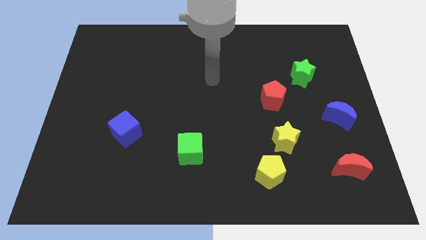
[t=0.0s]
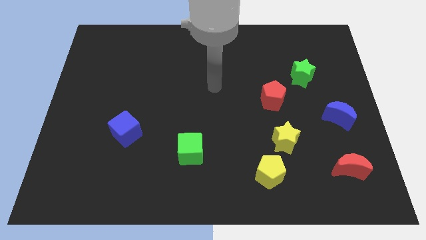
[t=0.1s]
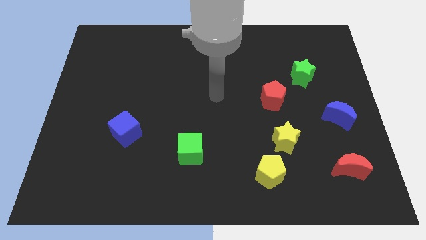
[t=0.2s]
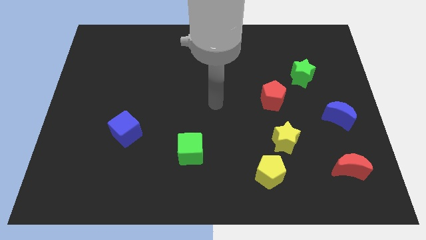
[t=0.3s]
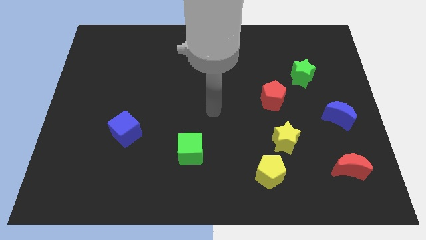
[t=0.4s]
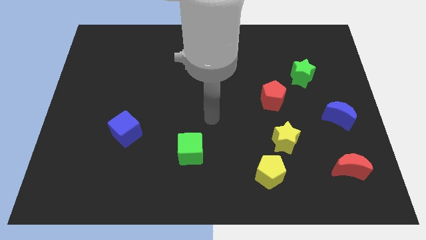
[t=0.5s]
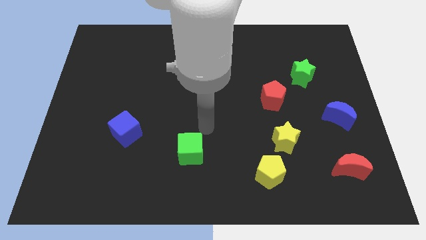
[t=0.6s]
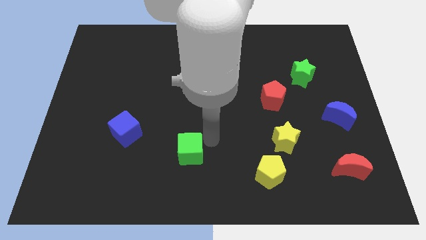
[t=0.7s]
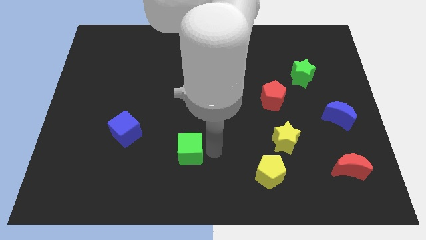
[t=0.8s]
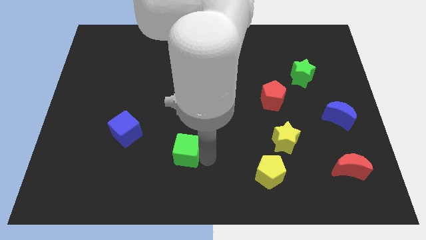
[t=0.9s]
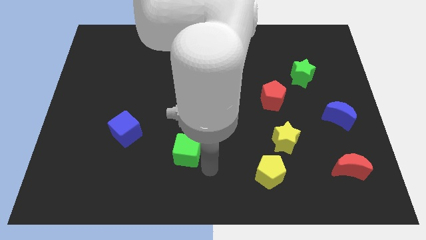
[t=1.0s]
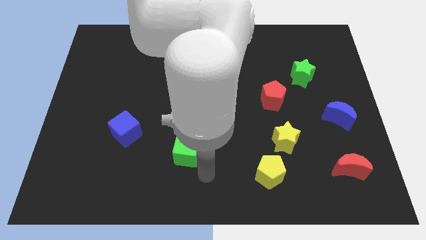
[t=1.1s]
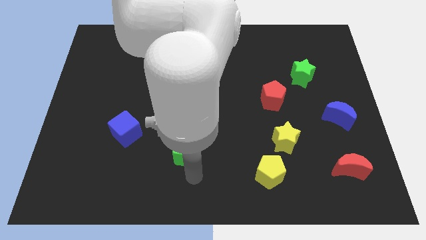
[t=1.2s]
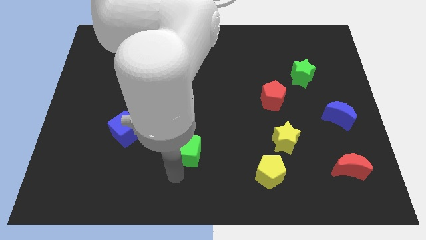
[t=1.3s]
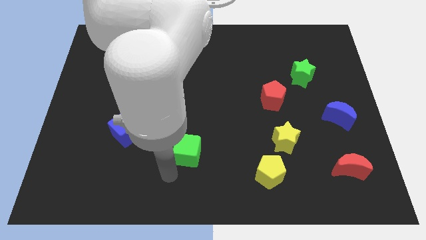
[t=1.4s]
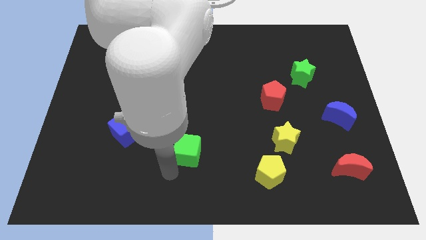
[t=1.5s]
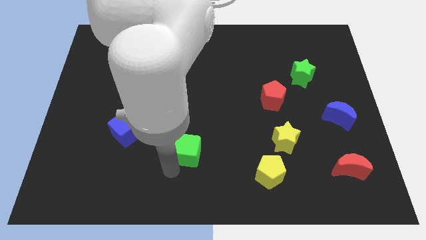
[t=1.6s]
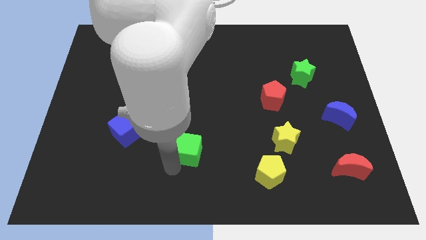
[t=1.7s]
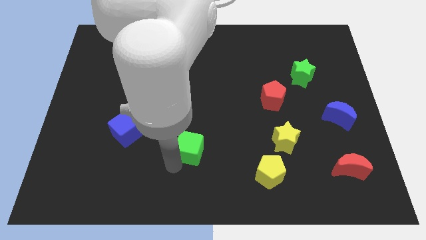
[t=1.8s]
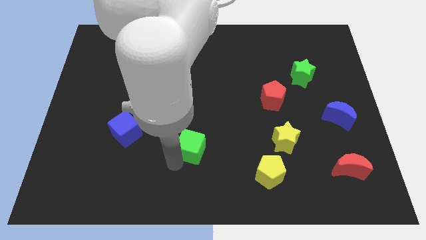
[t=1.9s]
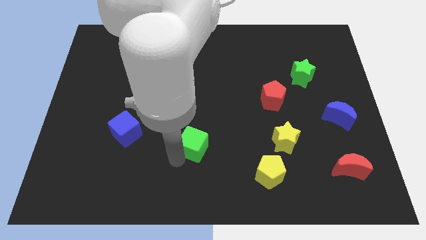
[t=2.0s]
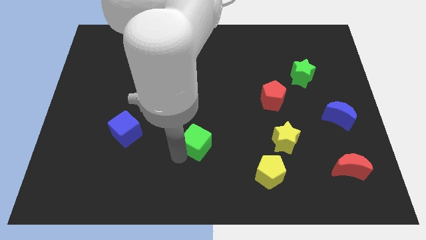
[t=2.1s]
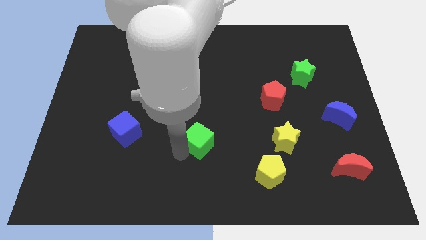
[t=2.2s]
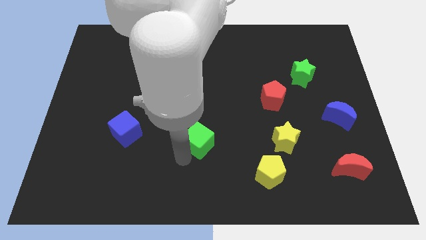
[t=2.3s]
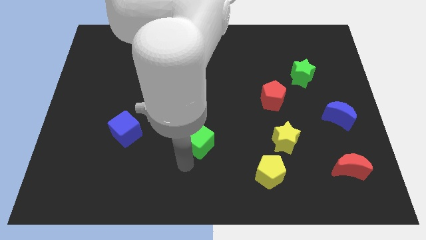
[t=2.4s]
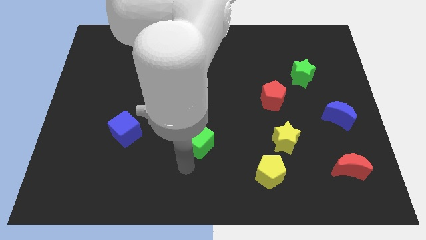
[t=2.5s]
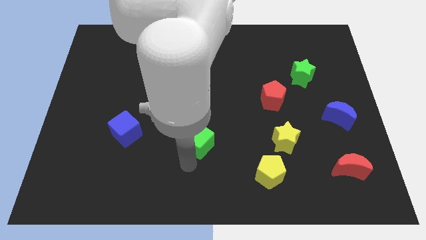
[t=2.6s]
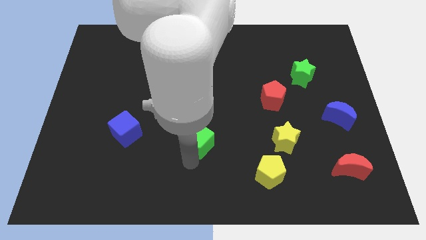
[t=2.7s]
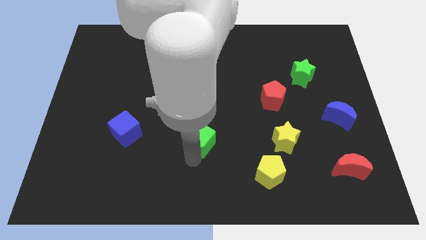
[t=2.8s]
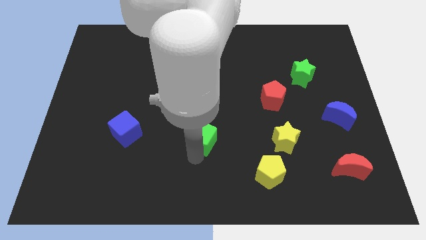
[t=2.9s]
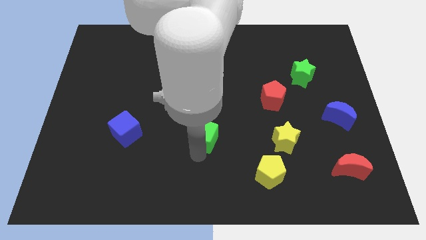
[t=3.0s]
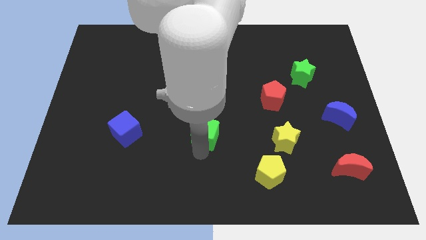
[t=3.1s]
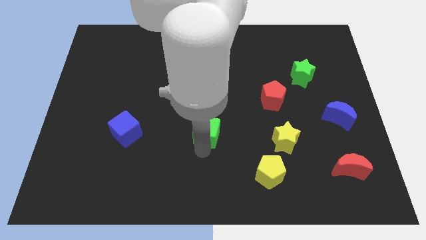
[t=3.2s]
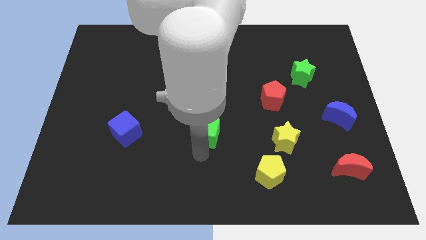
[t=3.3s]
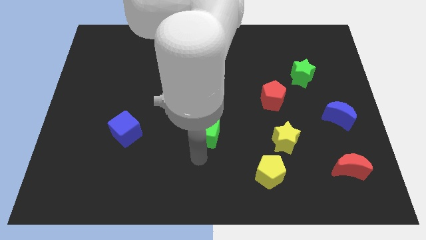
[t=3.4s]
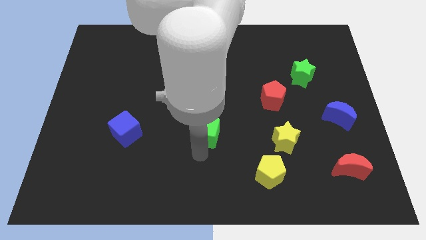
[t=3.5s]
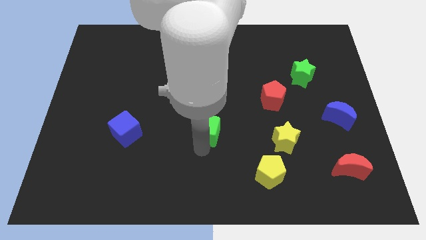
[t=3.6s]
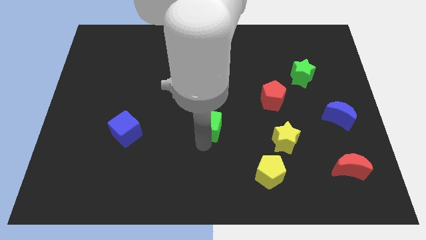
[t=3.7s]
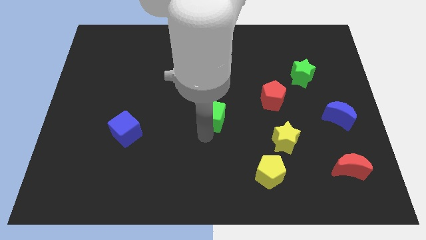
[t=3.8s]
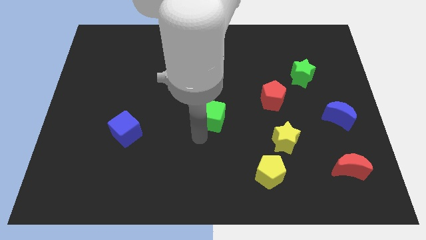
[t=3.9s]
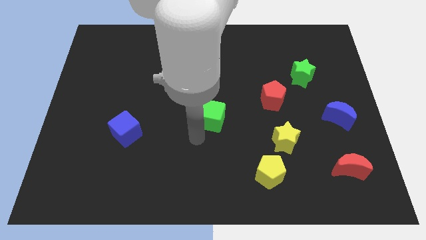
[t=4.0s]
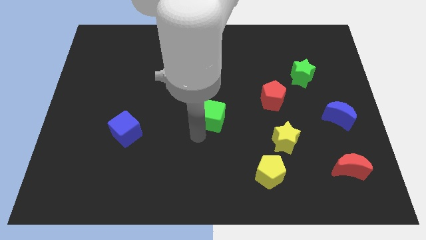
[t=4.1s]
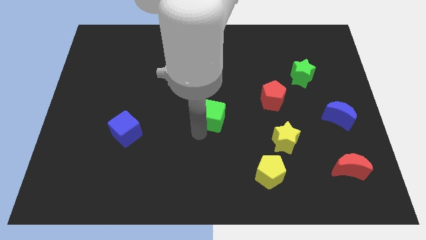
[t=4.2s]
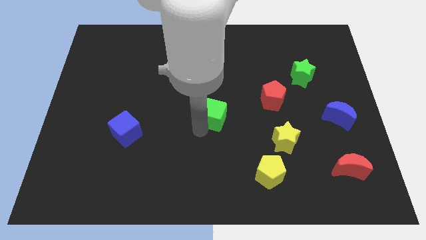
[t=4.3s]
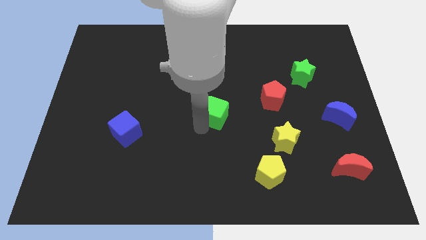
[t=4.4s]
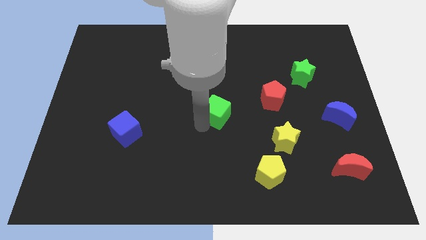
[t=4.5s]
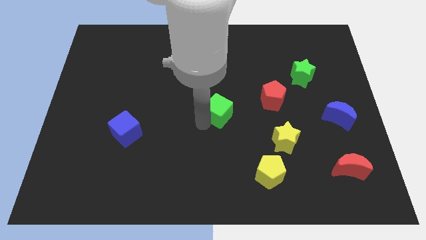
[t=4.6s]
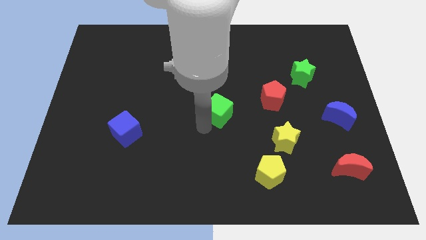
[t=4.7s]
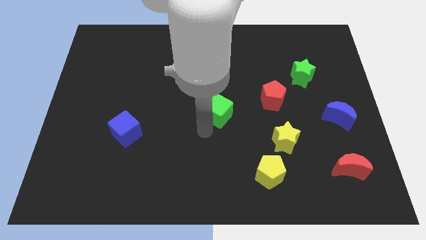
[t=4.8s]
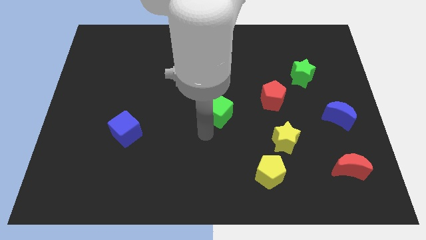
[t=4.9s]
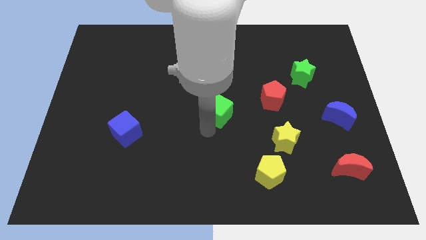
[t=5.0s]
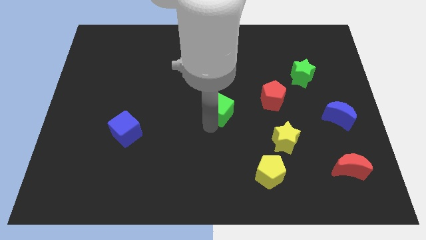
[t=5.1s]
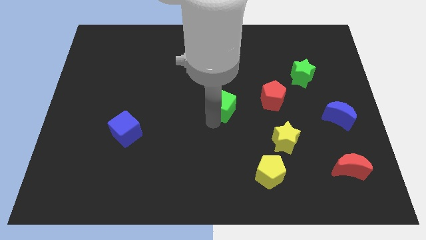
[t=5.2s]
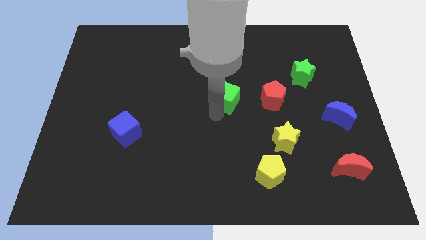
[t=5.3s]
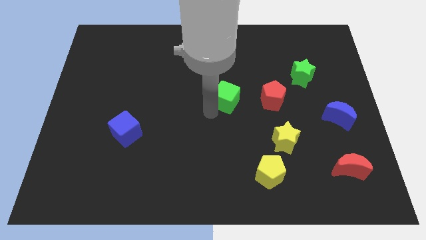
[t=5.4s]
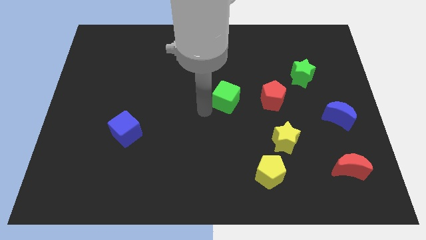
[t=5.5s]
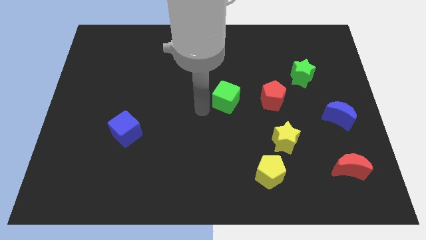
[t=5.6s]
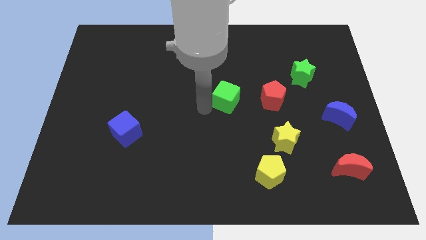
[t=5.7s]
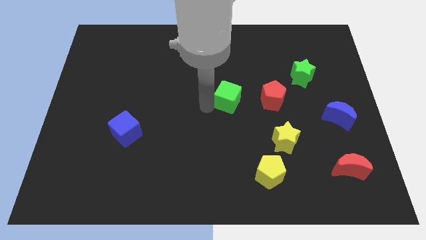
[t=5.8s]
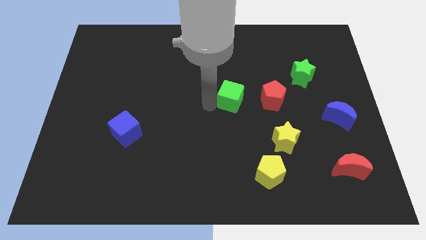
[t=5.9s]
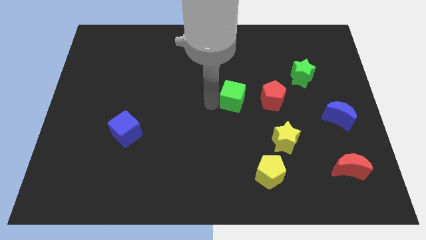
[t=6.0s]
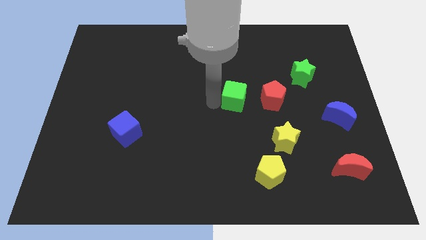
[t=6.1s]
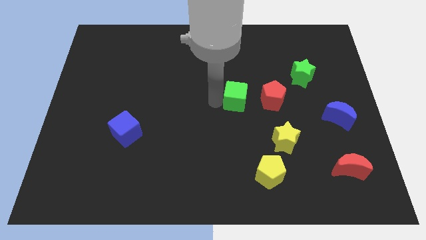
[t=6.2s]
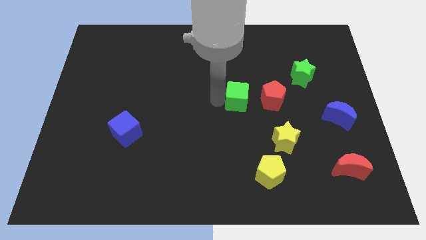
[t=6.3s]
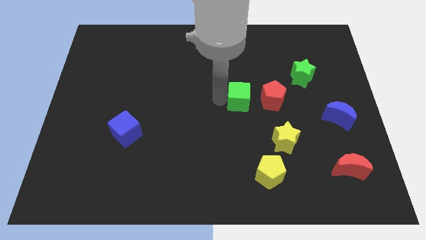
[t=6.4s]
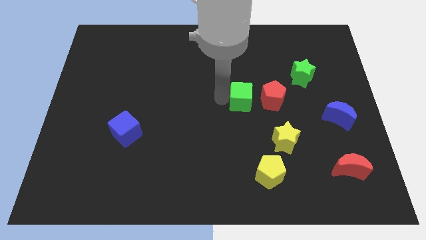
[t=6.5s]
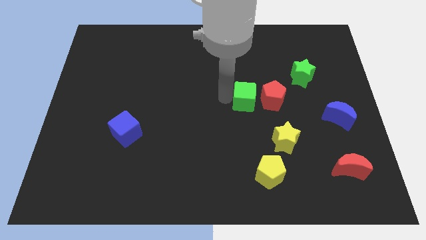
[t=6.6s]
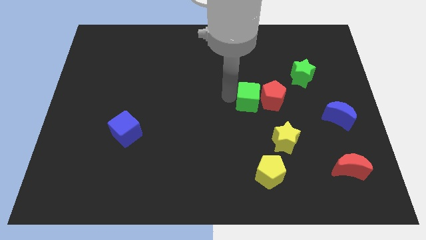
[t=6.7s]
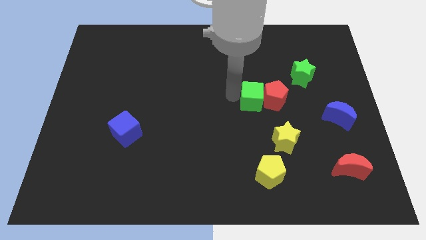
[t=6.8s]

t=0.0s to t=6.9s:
move the green cube diagonally up and right

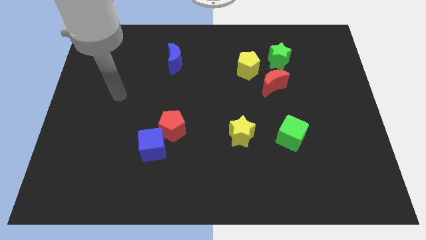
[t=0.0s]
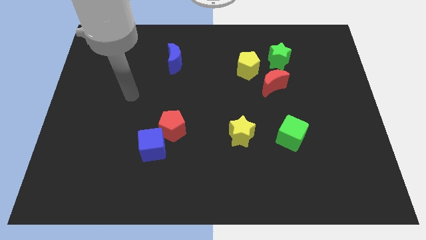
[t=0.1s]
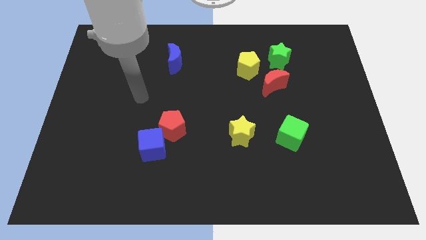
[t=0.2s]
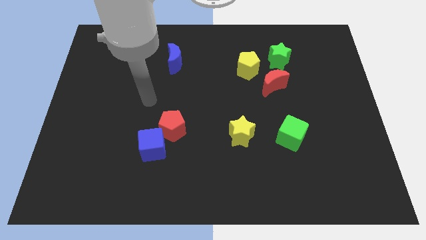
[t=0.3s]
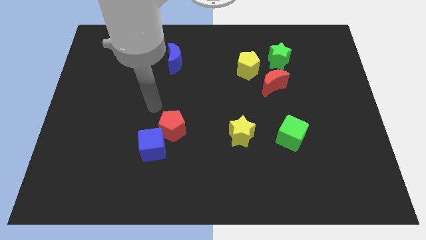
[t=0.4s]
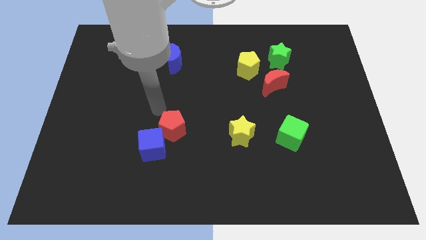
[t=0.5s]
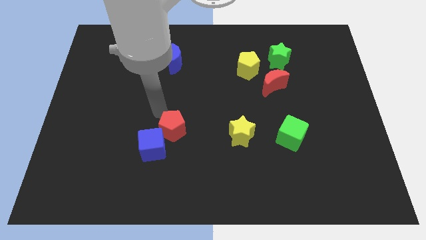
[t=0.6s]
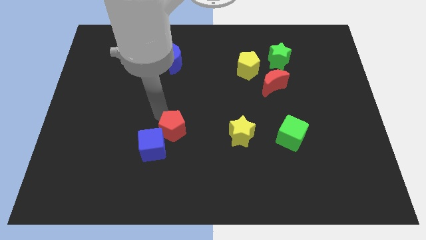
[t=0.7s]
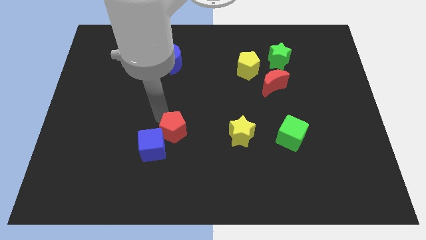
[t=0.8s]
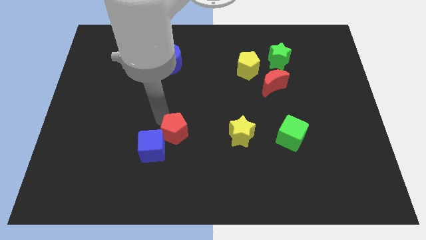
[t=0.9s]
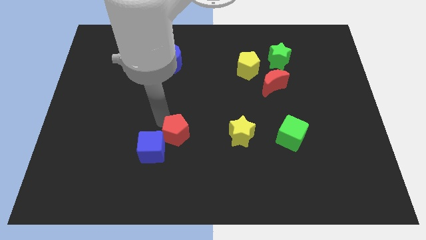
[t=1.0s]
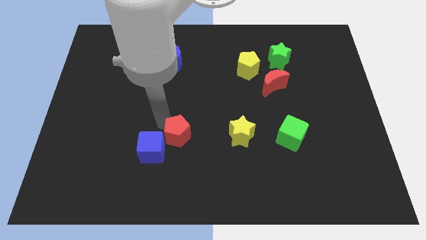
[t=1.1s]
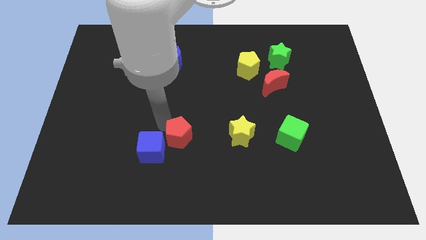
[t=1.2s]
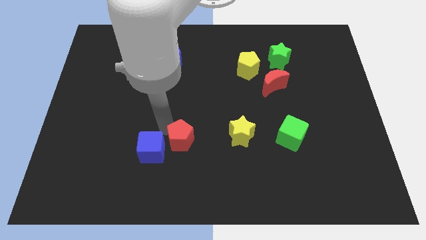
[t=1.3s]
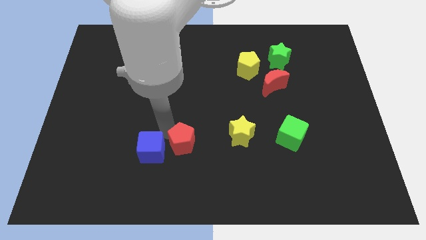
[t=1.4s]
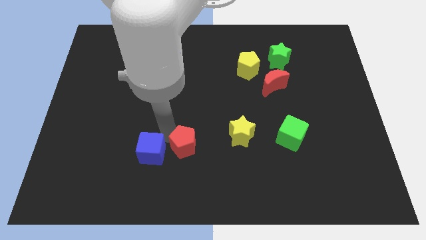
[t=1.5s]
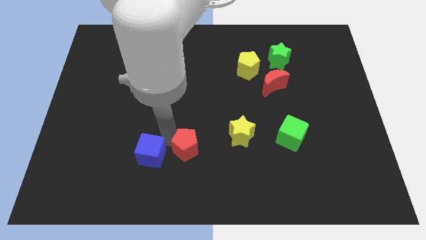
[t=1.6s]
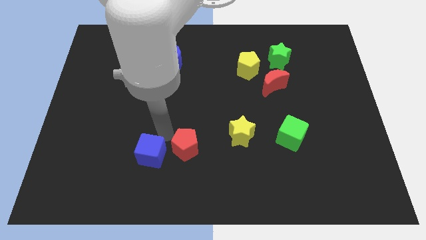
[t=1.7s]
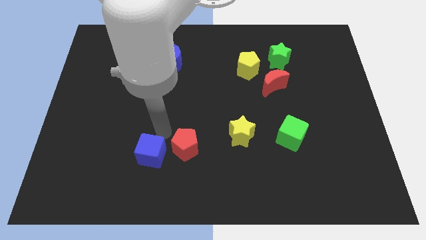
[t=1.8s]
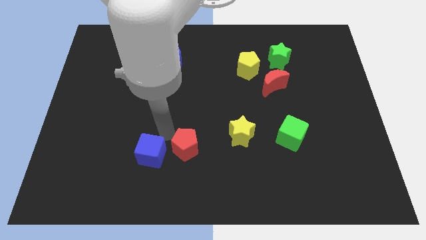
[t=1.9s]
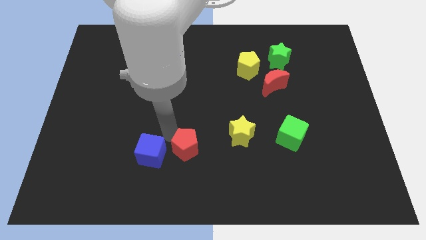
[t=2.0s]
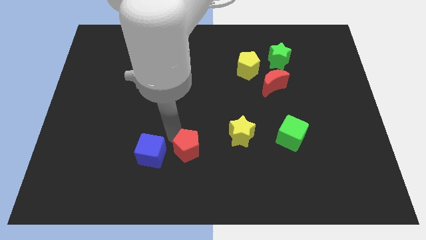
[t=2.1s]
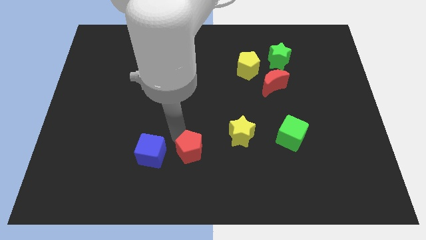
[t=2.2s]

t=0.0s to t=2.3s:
move the red pentagon a little bit diagonally down and to the right
